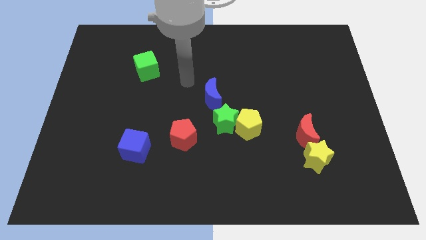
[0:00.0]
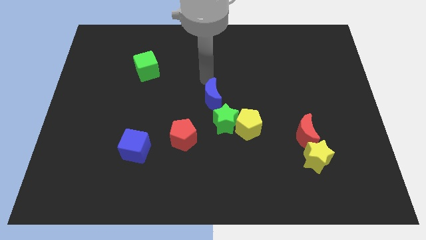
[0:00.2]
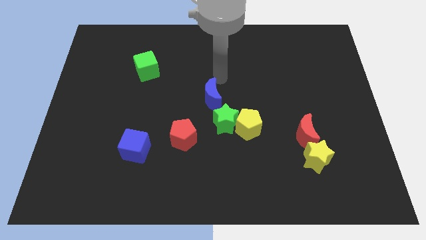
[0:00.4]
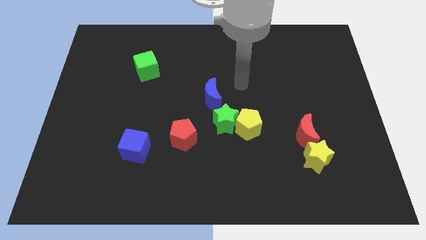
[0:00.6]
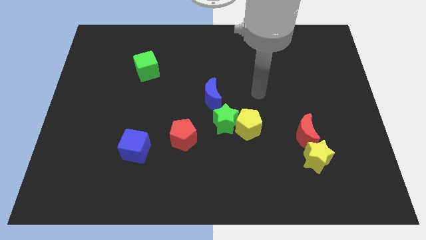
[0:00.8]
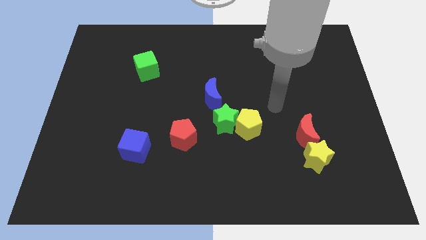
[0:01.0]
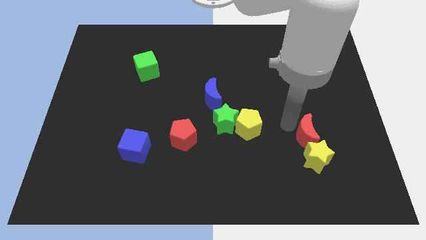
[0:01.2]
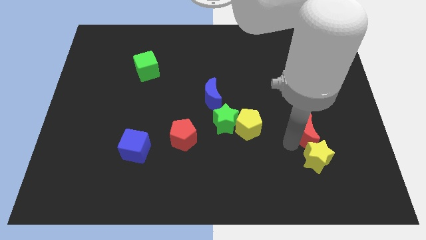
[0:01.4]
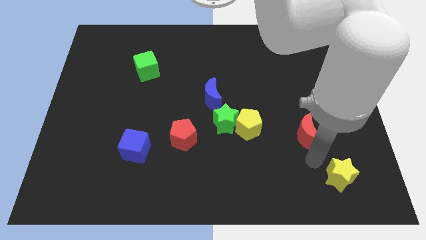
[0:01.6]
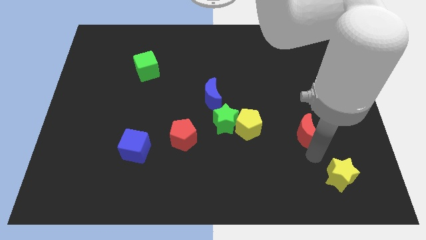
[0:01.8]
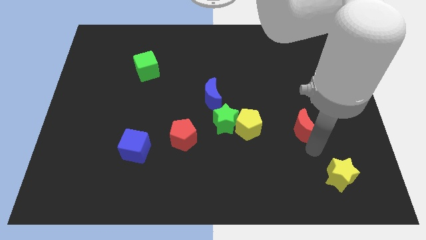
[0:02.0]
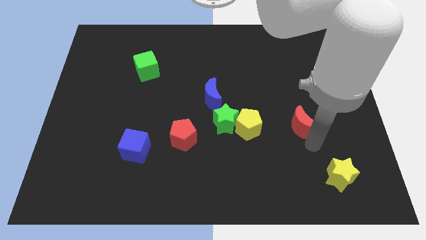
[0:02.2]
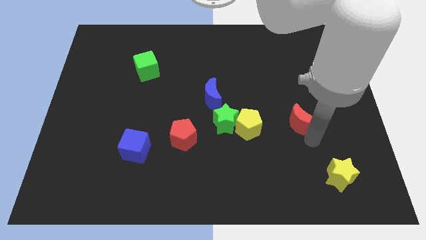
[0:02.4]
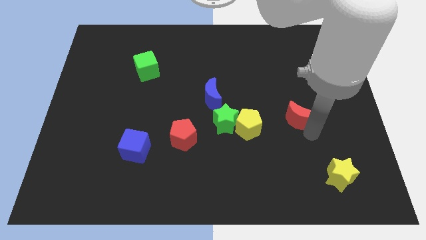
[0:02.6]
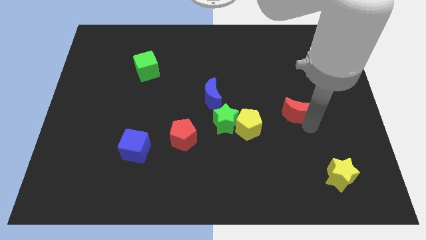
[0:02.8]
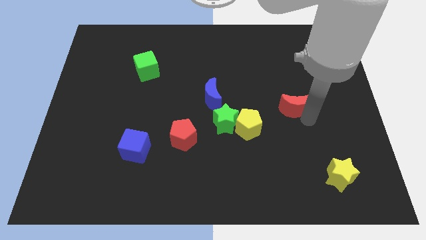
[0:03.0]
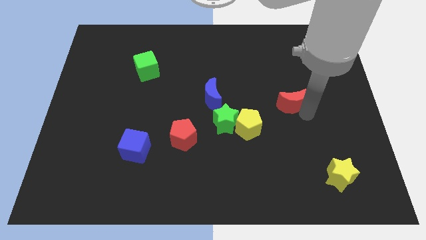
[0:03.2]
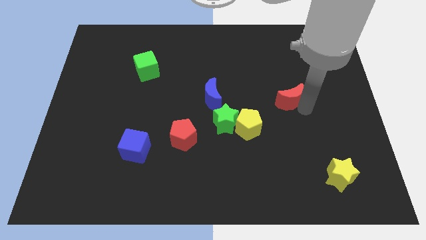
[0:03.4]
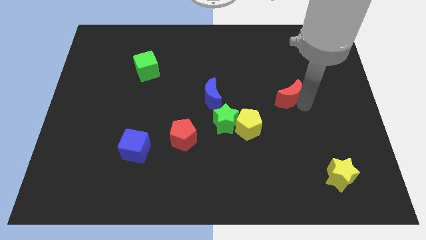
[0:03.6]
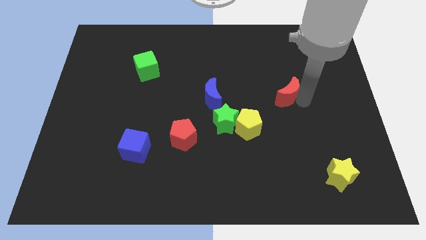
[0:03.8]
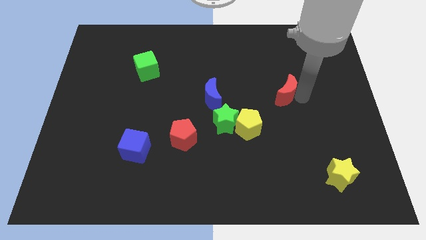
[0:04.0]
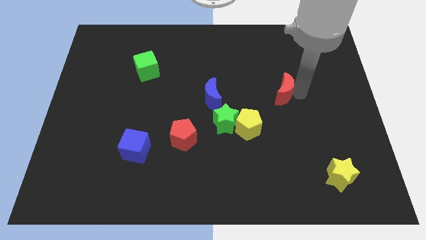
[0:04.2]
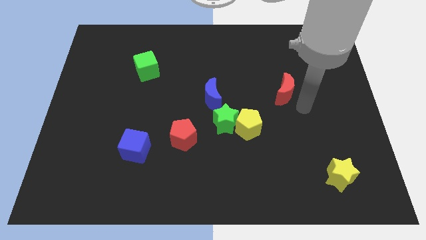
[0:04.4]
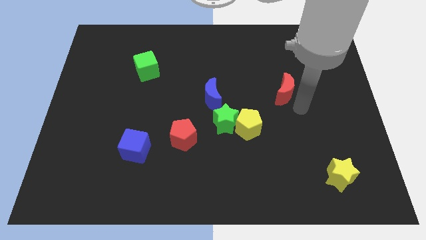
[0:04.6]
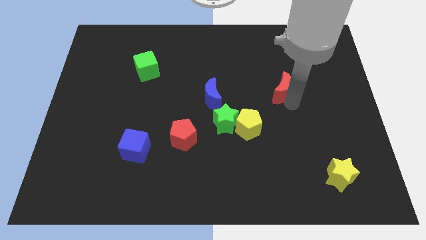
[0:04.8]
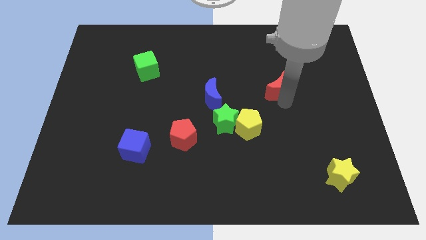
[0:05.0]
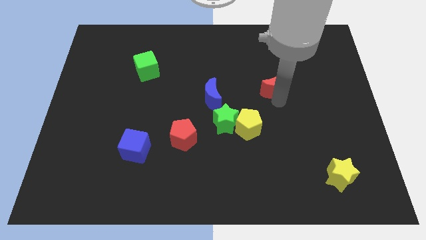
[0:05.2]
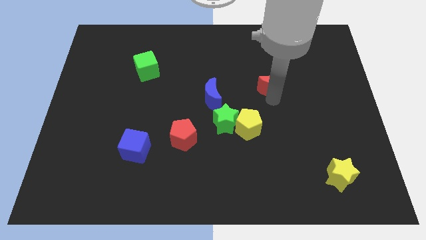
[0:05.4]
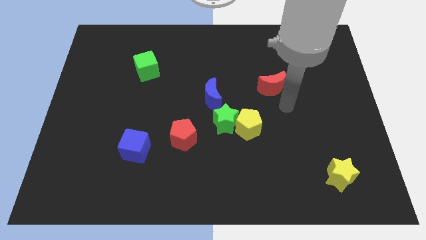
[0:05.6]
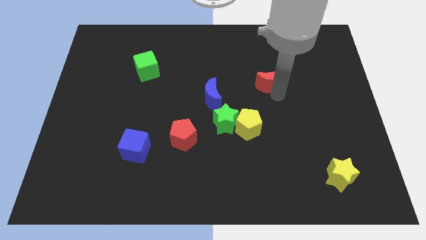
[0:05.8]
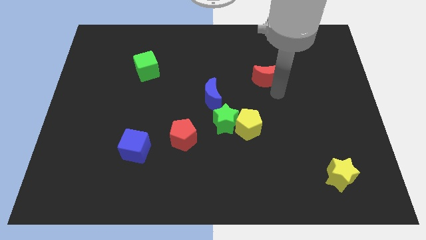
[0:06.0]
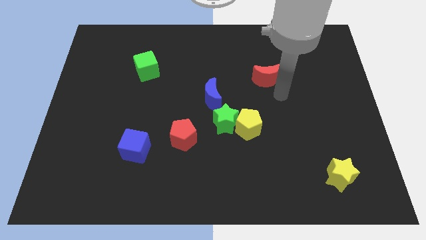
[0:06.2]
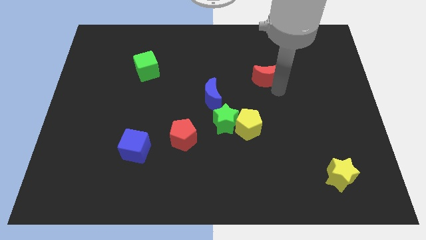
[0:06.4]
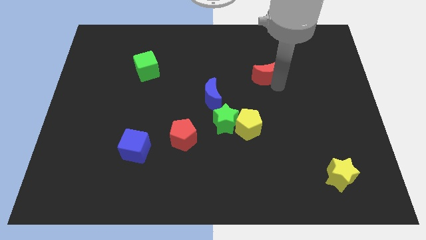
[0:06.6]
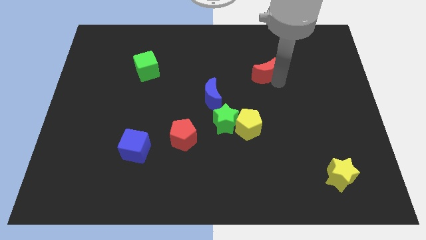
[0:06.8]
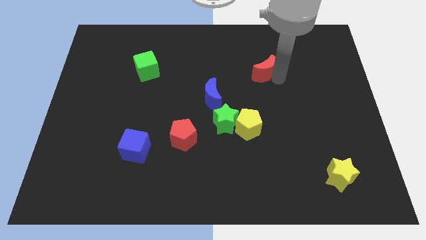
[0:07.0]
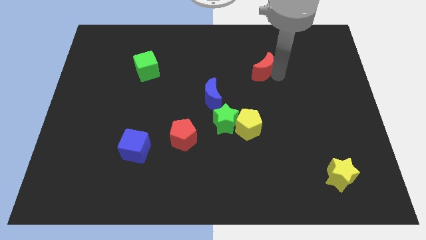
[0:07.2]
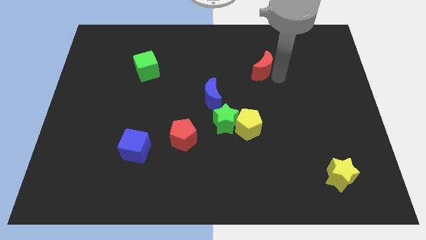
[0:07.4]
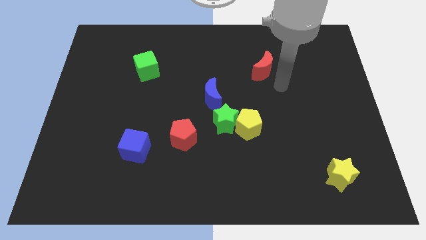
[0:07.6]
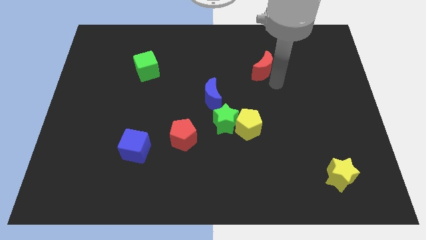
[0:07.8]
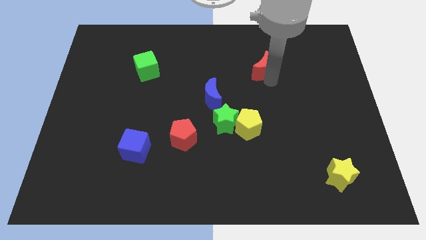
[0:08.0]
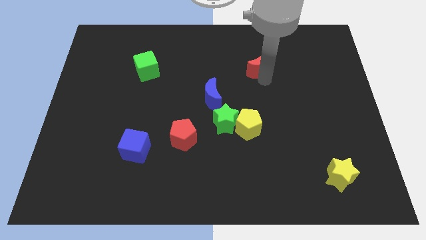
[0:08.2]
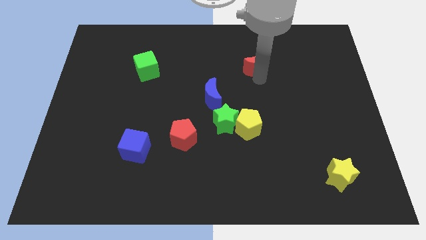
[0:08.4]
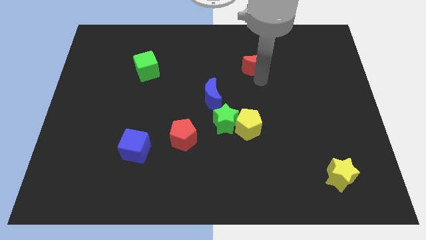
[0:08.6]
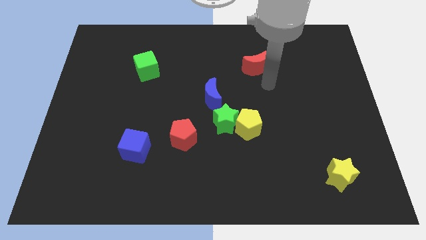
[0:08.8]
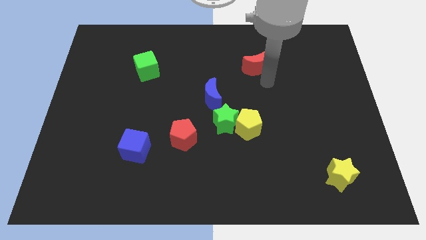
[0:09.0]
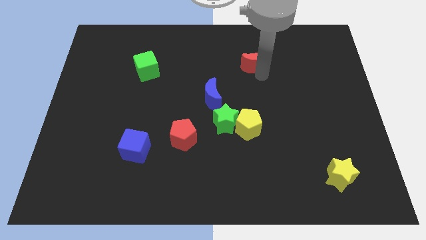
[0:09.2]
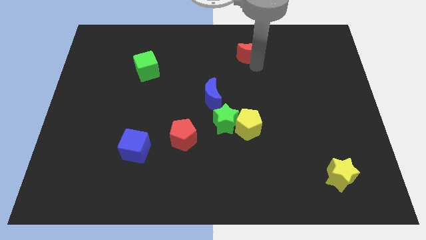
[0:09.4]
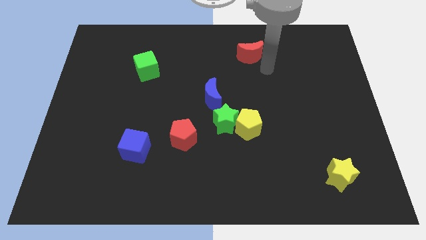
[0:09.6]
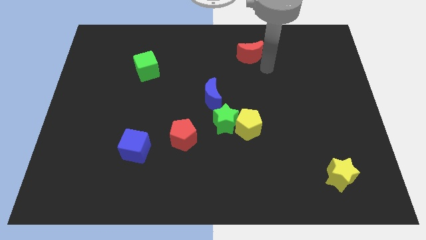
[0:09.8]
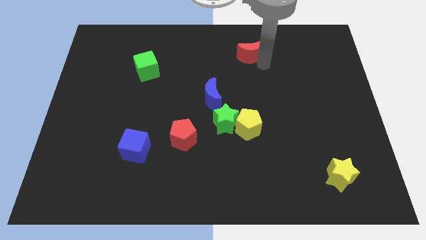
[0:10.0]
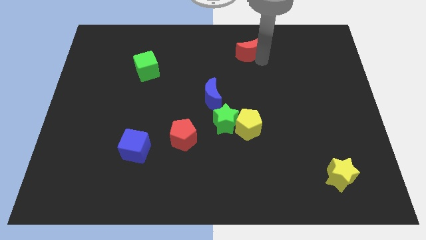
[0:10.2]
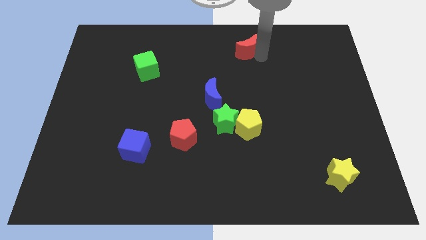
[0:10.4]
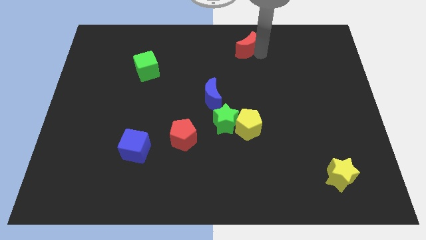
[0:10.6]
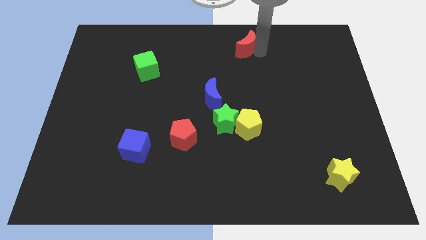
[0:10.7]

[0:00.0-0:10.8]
put the red moon to the top
